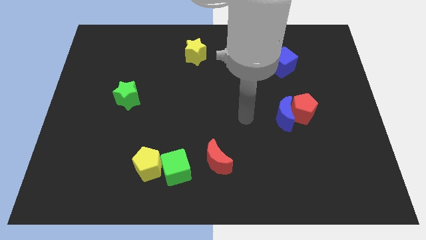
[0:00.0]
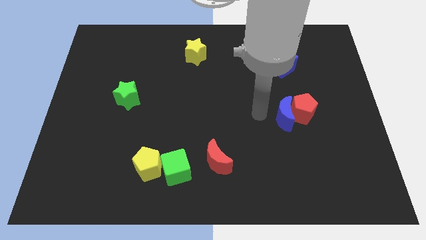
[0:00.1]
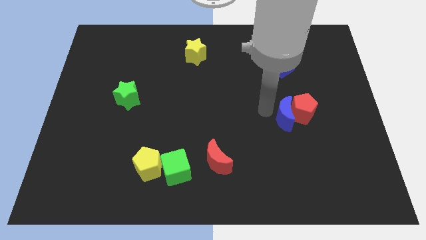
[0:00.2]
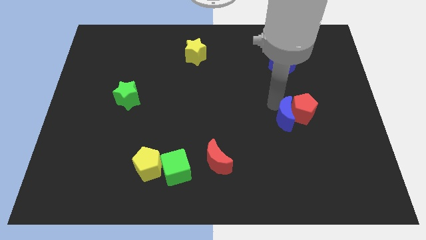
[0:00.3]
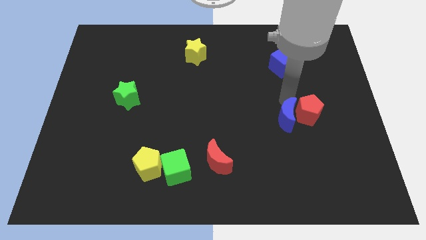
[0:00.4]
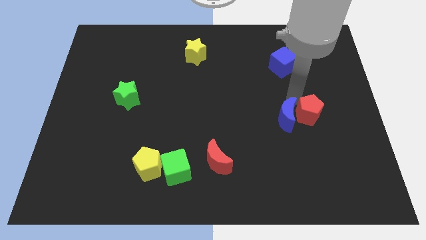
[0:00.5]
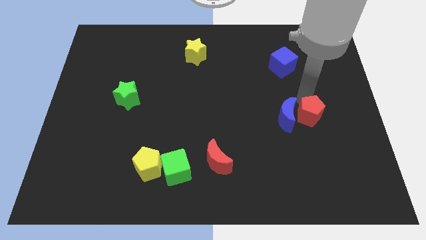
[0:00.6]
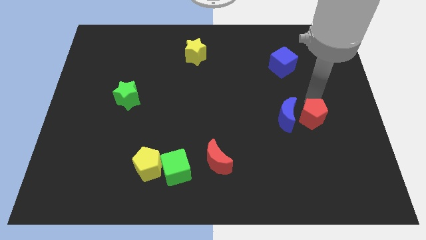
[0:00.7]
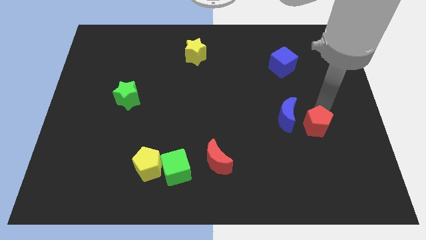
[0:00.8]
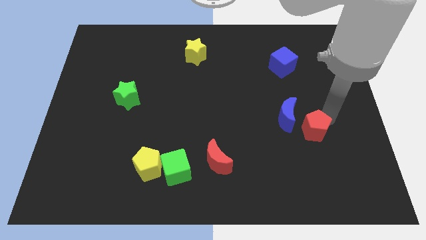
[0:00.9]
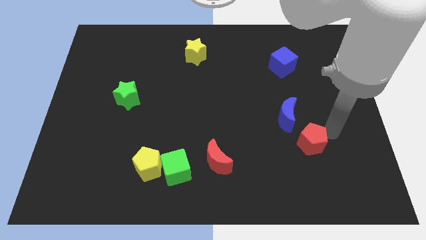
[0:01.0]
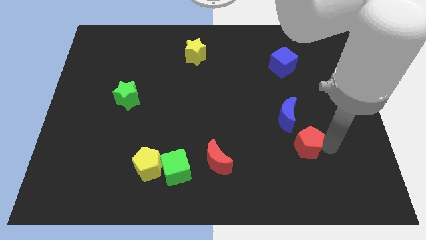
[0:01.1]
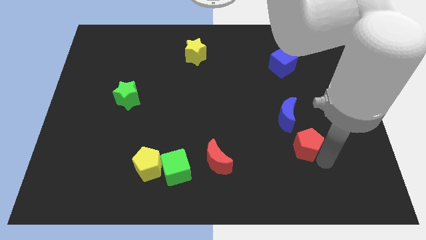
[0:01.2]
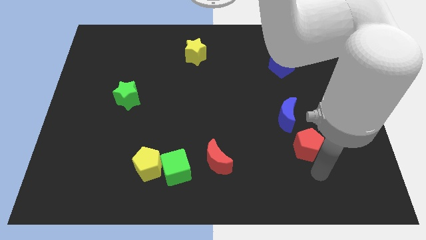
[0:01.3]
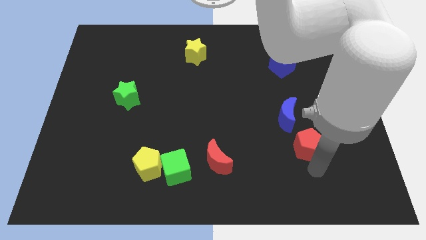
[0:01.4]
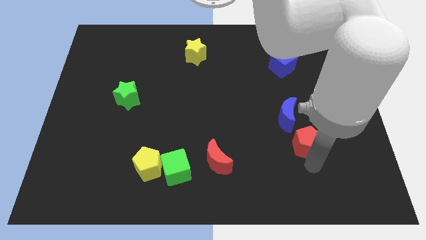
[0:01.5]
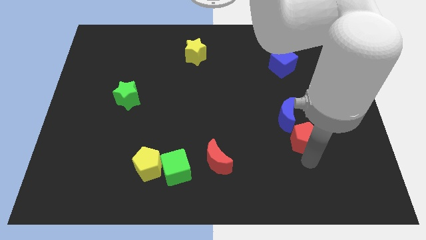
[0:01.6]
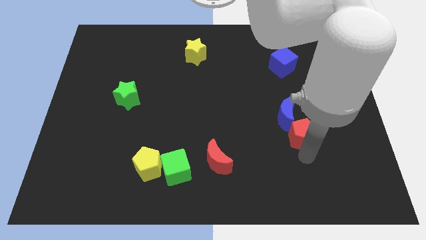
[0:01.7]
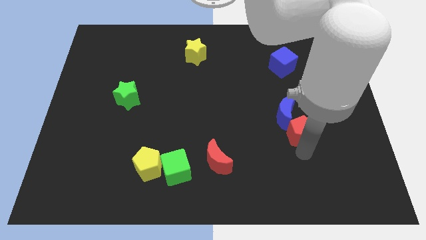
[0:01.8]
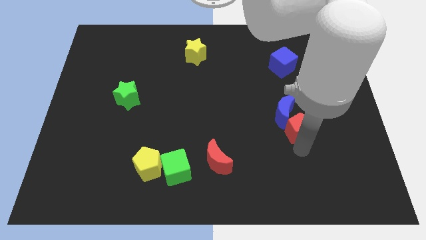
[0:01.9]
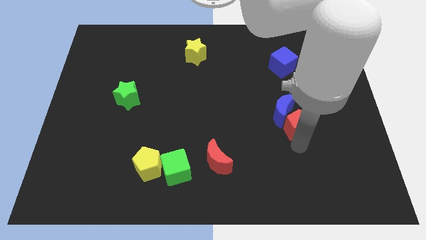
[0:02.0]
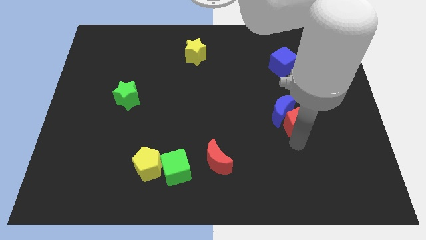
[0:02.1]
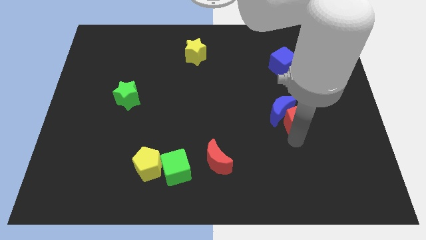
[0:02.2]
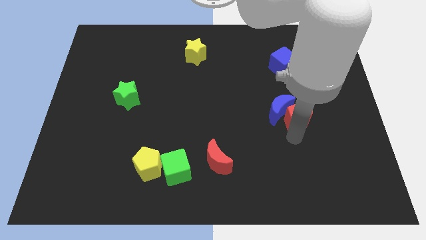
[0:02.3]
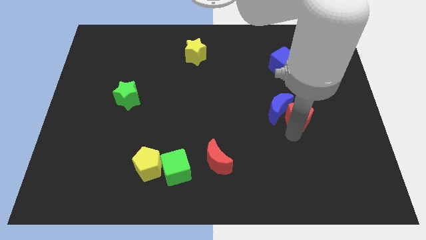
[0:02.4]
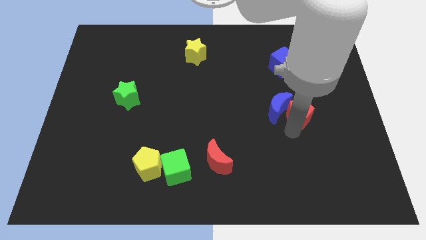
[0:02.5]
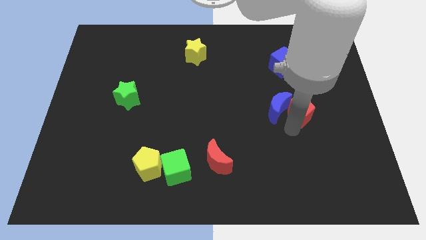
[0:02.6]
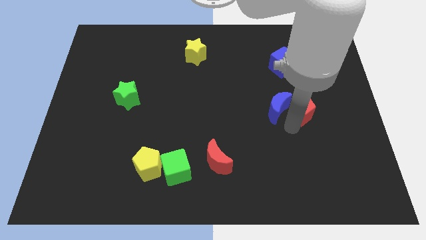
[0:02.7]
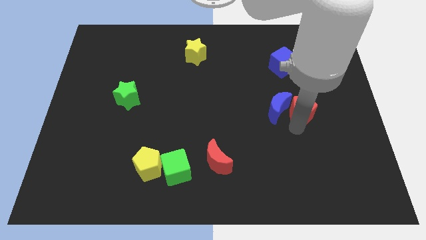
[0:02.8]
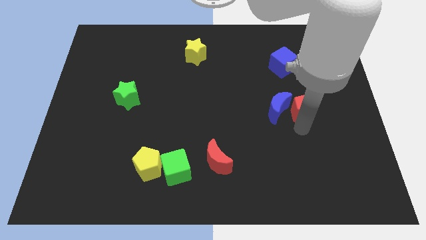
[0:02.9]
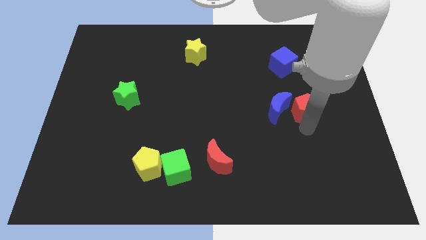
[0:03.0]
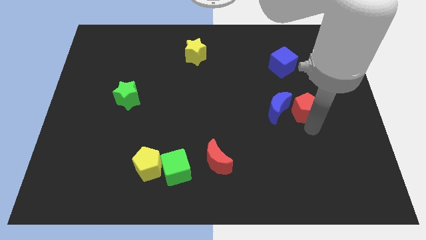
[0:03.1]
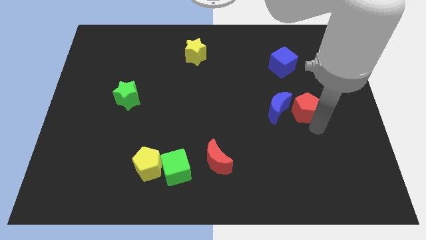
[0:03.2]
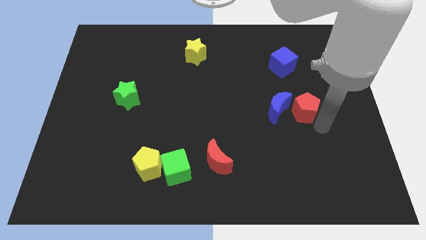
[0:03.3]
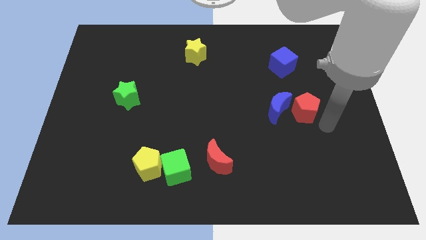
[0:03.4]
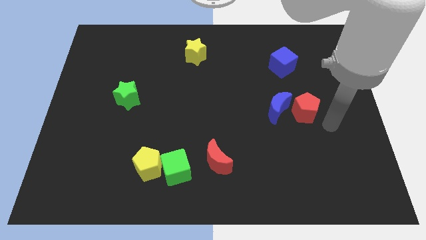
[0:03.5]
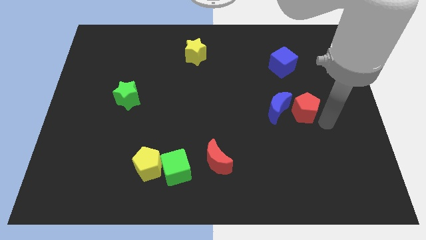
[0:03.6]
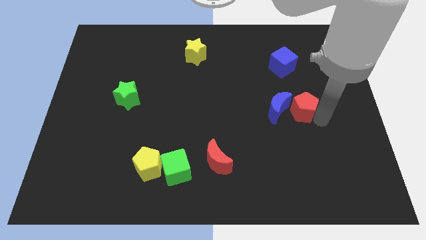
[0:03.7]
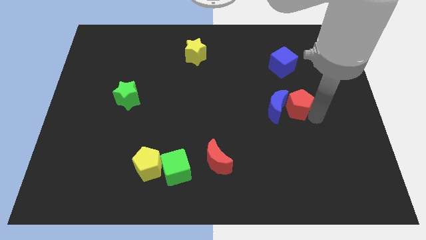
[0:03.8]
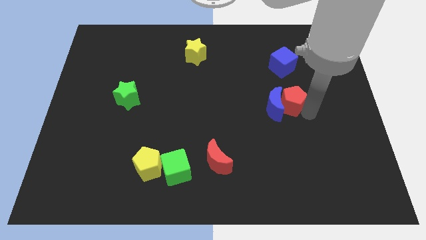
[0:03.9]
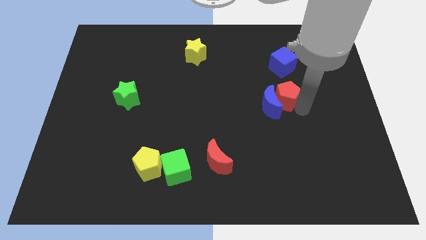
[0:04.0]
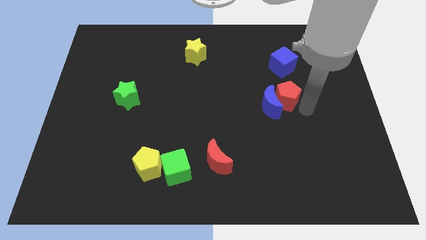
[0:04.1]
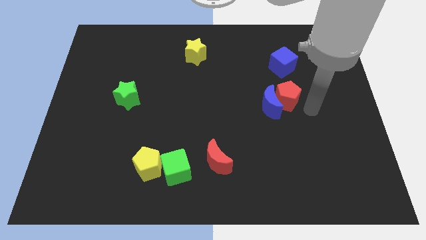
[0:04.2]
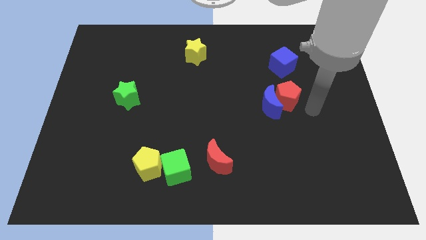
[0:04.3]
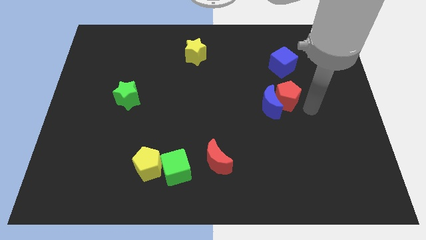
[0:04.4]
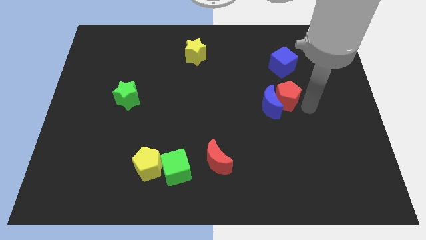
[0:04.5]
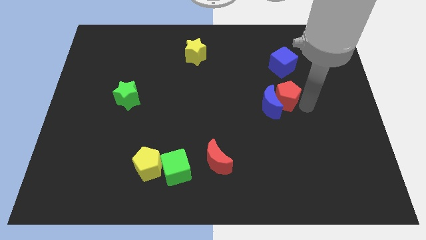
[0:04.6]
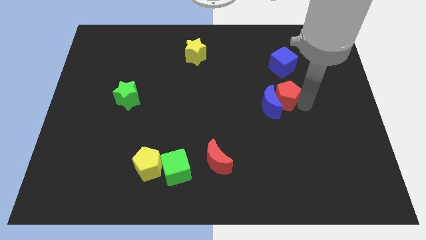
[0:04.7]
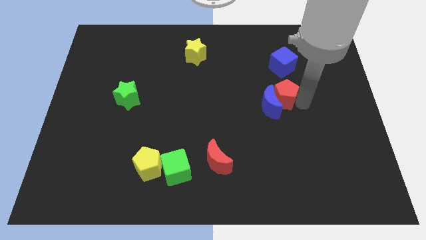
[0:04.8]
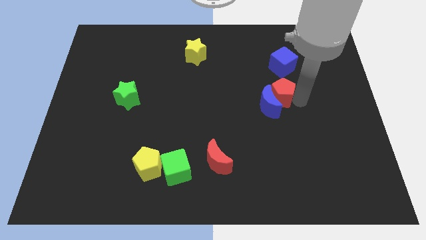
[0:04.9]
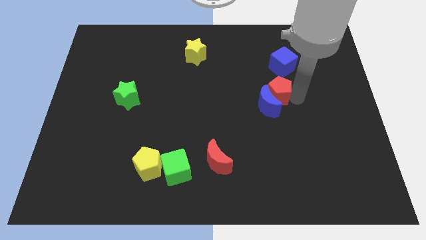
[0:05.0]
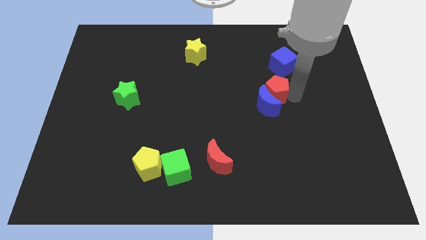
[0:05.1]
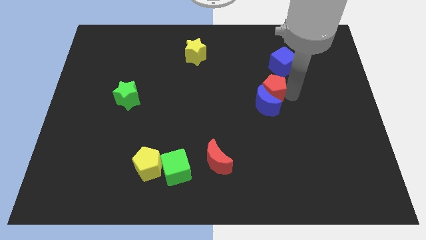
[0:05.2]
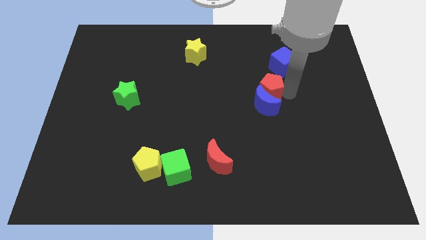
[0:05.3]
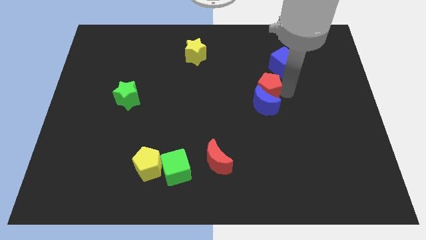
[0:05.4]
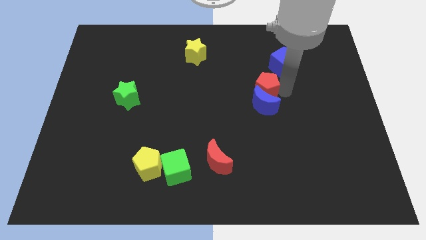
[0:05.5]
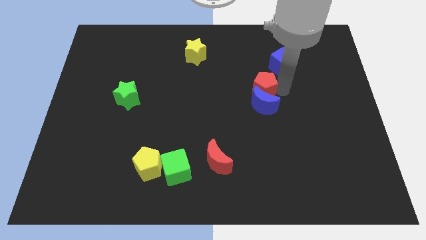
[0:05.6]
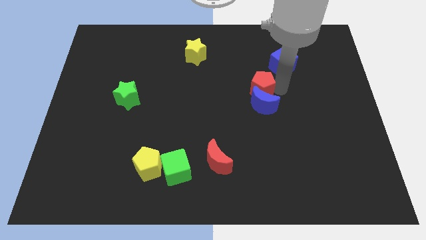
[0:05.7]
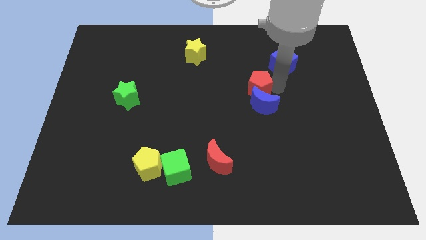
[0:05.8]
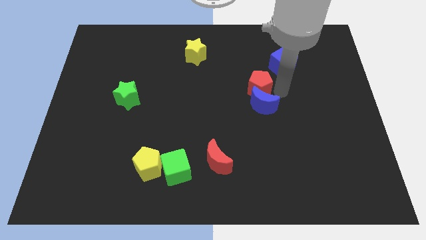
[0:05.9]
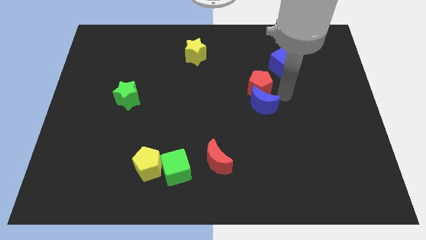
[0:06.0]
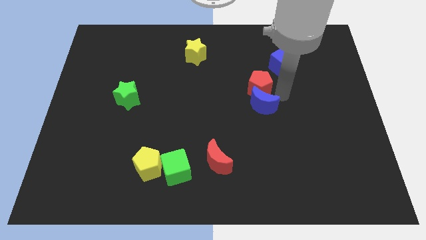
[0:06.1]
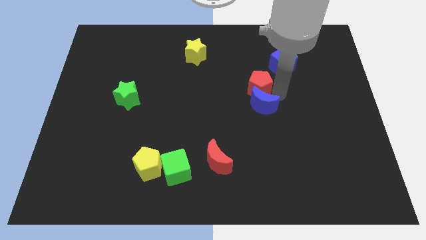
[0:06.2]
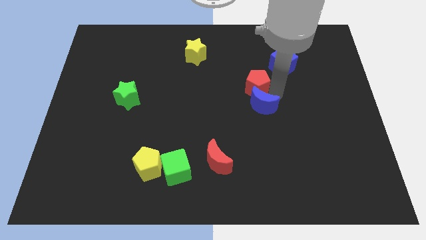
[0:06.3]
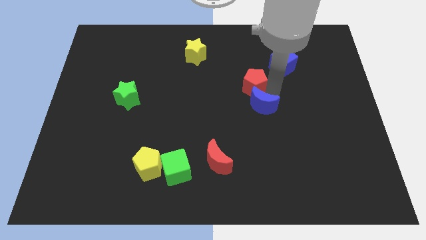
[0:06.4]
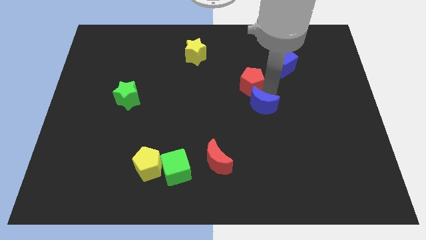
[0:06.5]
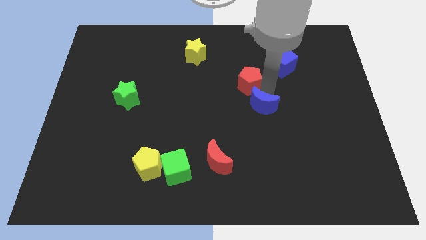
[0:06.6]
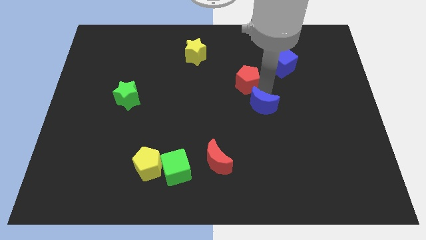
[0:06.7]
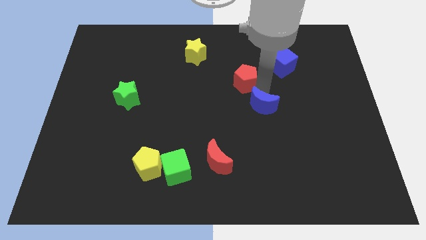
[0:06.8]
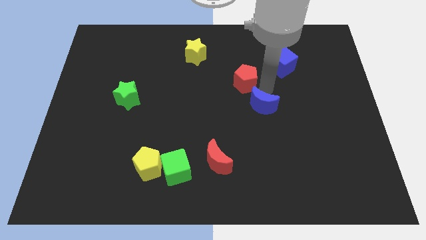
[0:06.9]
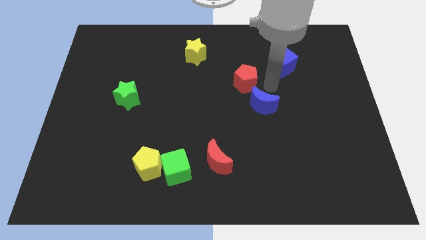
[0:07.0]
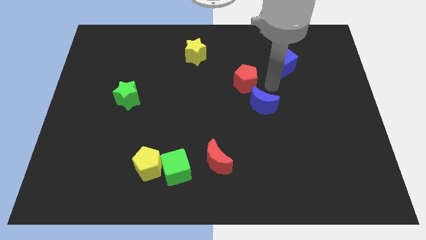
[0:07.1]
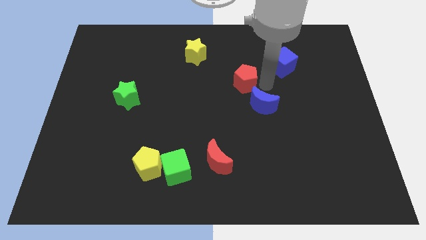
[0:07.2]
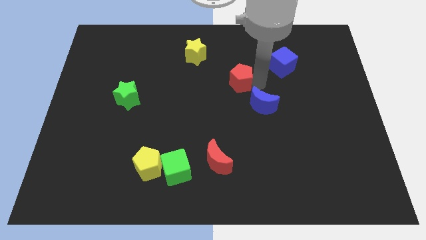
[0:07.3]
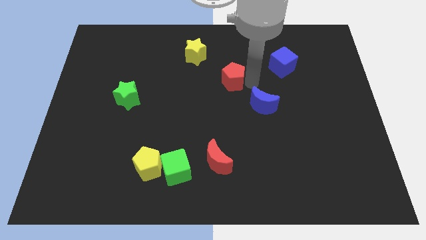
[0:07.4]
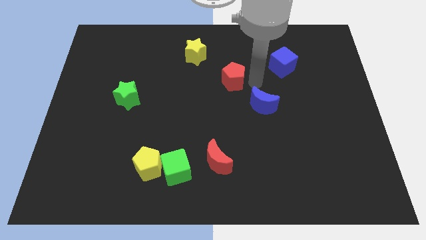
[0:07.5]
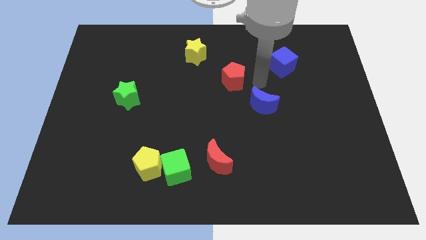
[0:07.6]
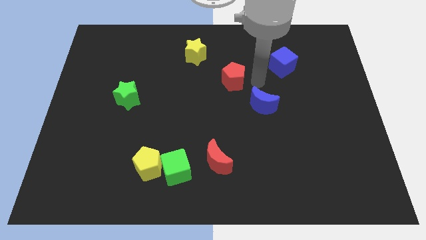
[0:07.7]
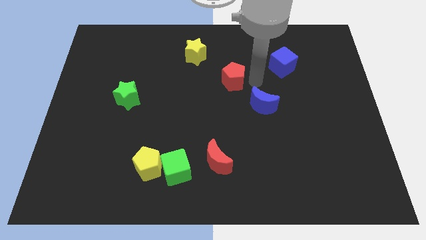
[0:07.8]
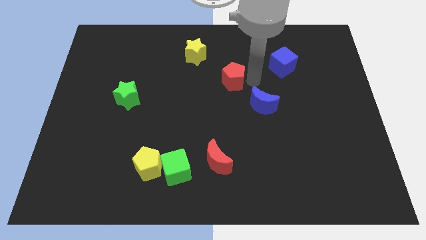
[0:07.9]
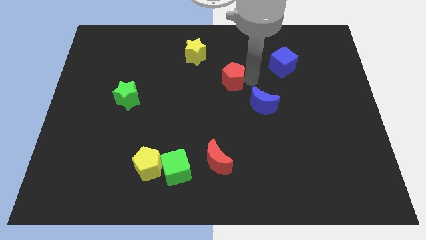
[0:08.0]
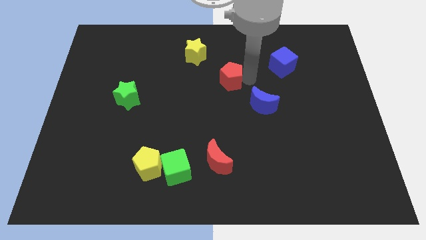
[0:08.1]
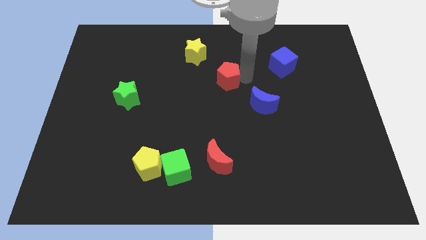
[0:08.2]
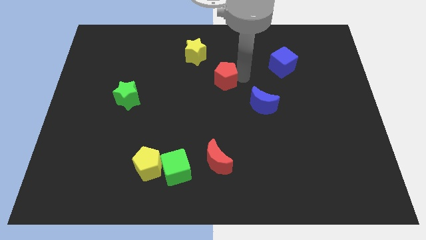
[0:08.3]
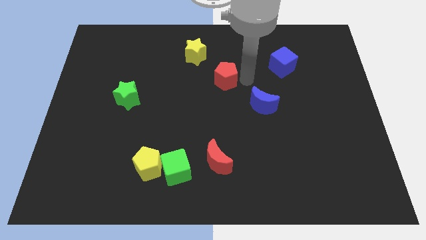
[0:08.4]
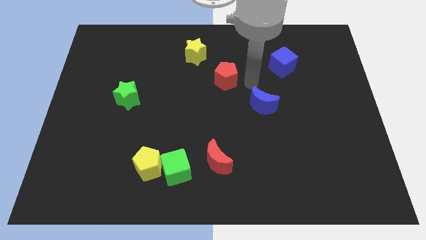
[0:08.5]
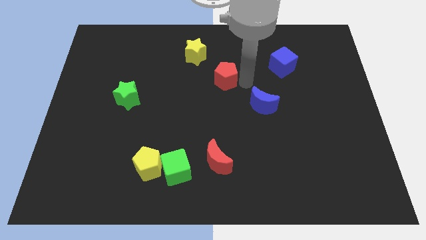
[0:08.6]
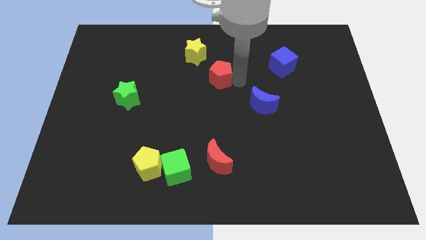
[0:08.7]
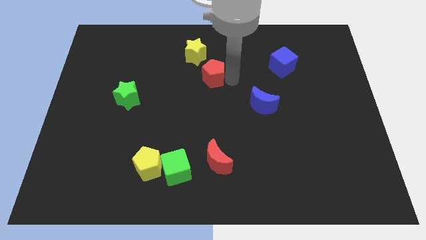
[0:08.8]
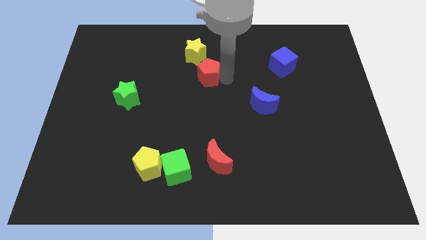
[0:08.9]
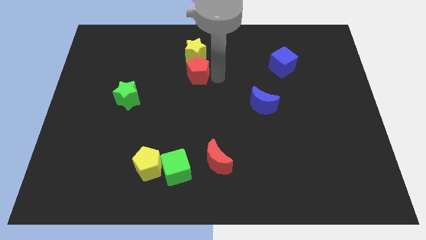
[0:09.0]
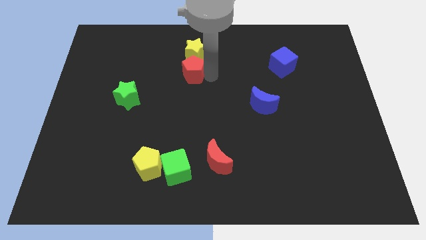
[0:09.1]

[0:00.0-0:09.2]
put the red pentagon to the bottom left side of the yellow star
